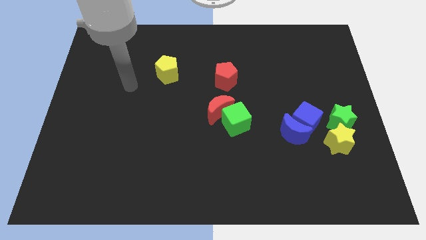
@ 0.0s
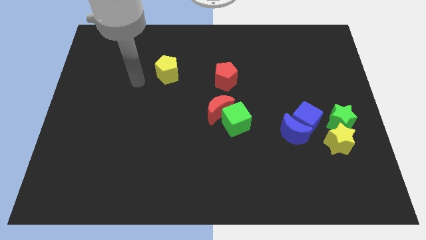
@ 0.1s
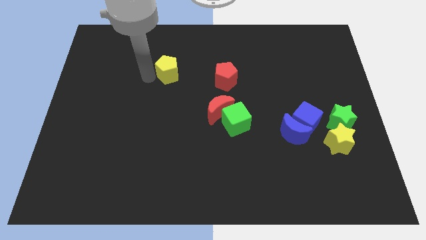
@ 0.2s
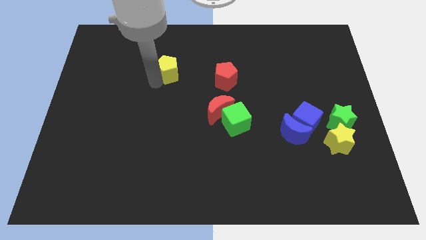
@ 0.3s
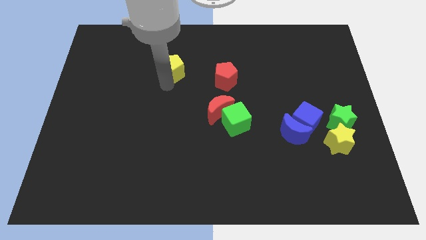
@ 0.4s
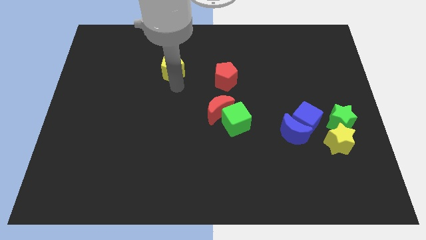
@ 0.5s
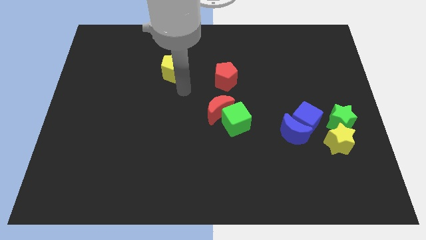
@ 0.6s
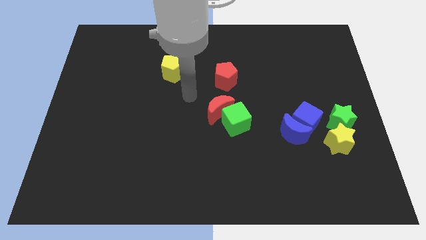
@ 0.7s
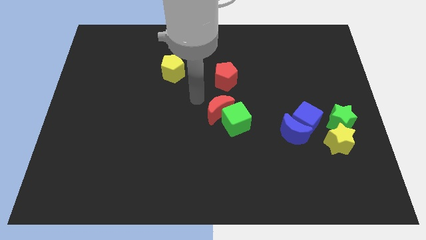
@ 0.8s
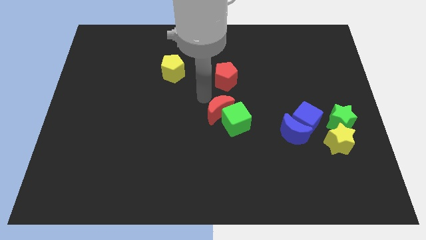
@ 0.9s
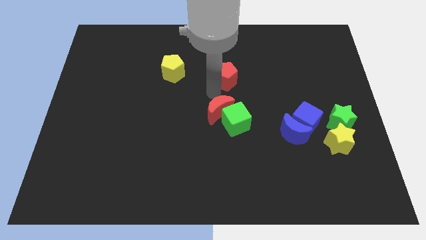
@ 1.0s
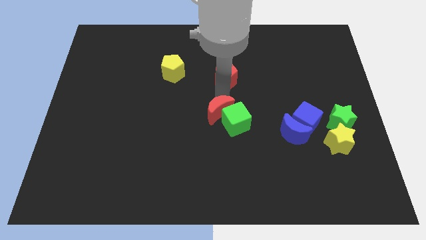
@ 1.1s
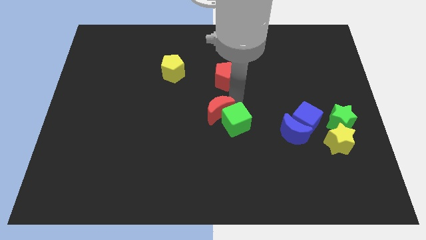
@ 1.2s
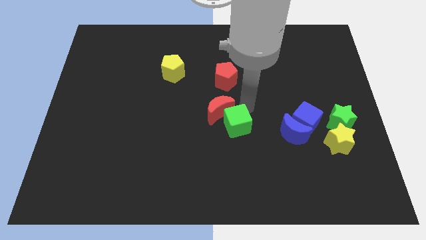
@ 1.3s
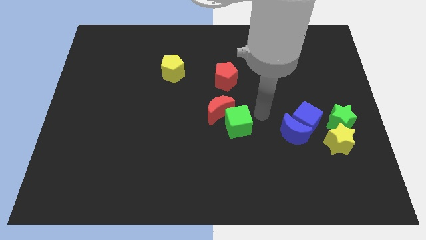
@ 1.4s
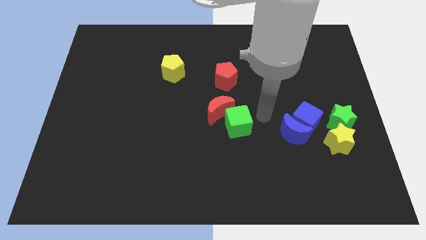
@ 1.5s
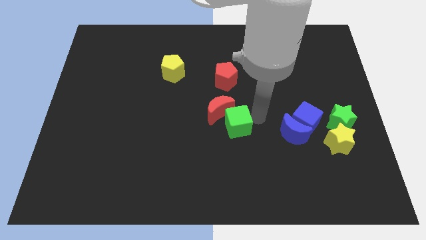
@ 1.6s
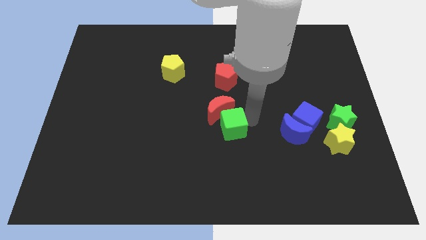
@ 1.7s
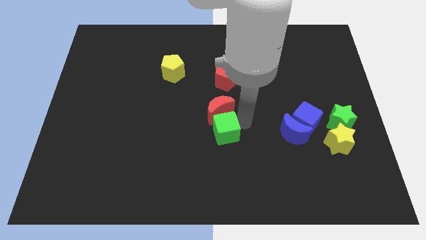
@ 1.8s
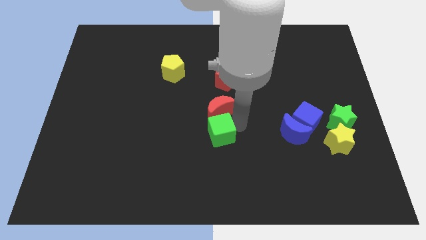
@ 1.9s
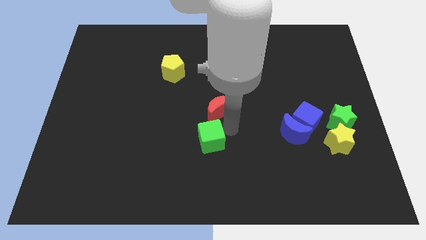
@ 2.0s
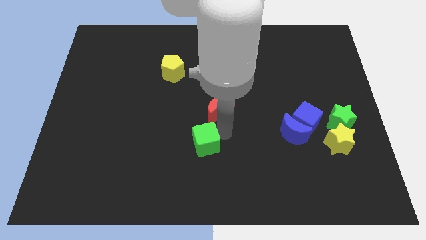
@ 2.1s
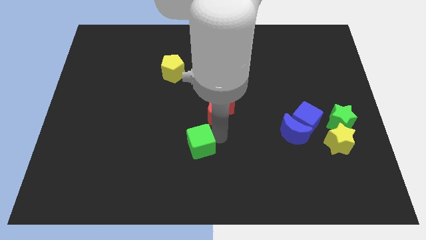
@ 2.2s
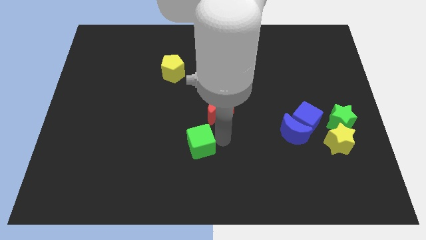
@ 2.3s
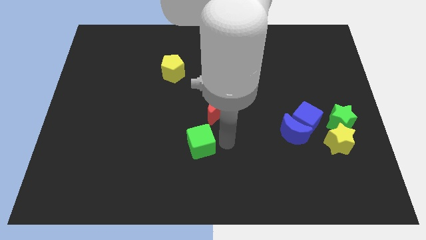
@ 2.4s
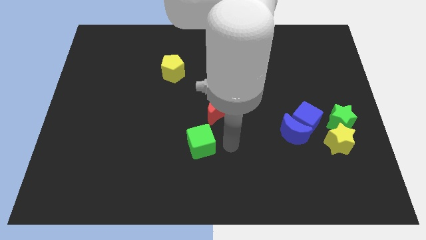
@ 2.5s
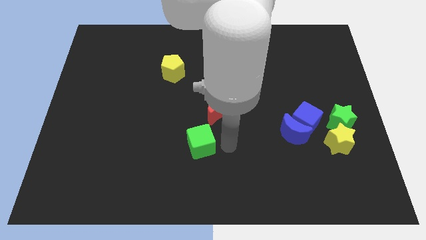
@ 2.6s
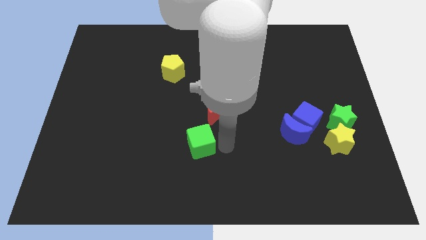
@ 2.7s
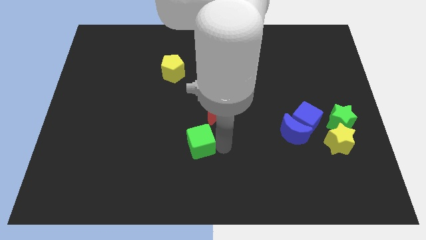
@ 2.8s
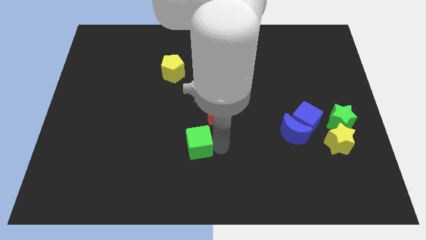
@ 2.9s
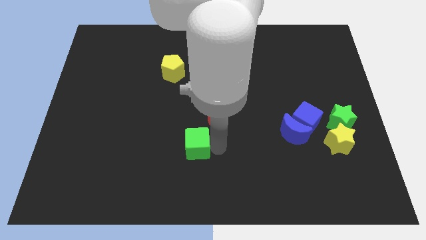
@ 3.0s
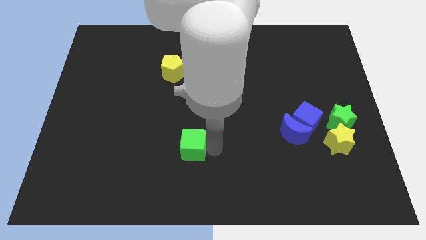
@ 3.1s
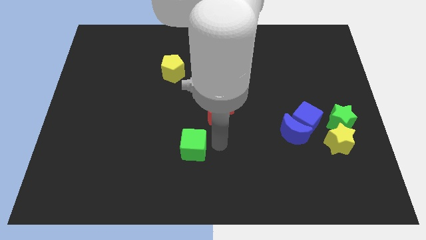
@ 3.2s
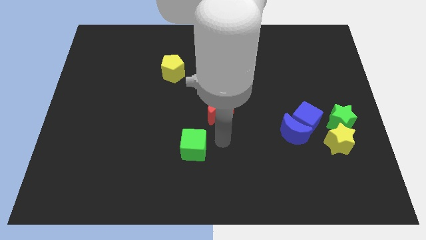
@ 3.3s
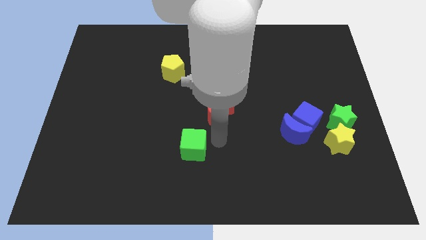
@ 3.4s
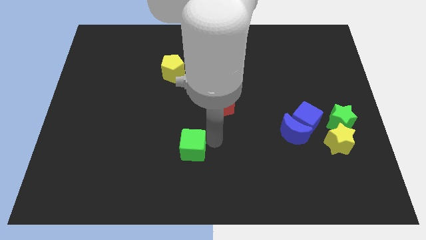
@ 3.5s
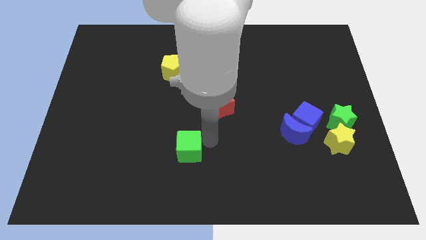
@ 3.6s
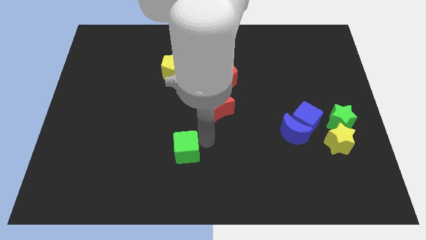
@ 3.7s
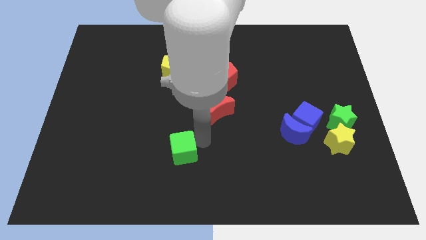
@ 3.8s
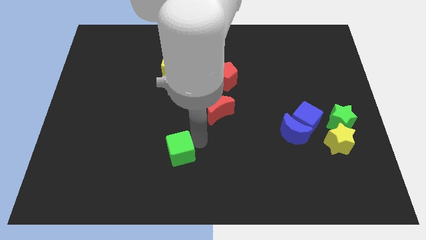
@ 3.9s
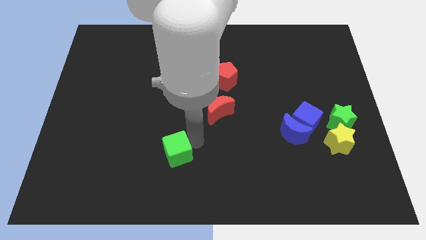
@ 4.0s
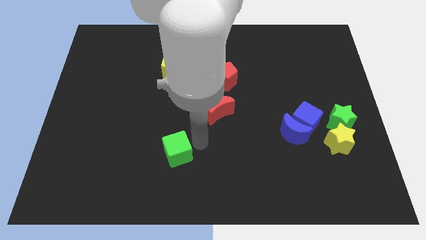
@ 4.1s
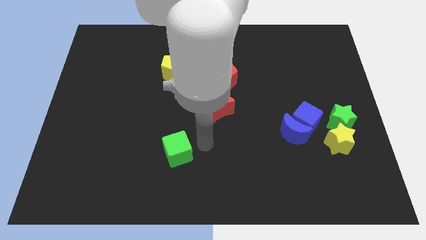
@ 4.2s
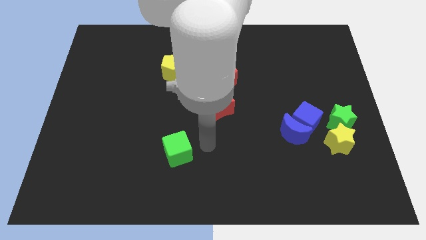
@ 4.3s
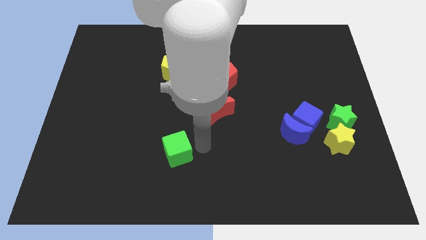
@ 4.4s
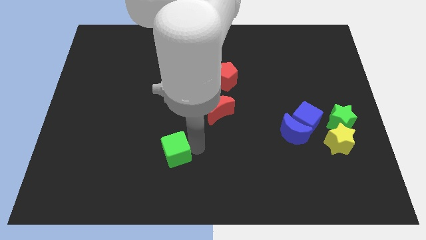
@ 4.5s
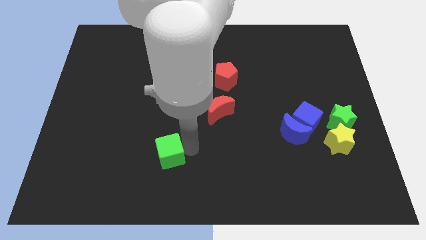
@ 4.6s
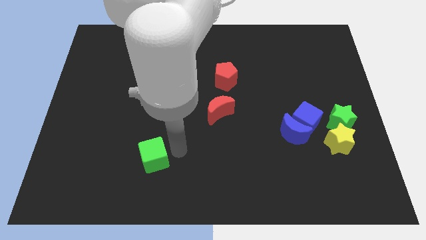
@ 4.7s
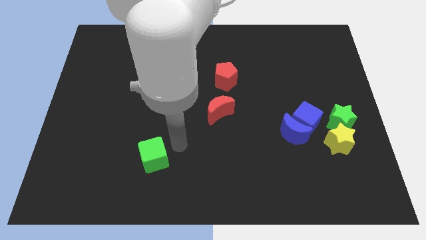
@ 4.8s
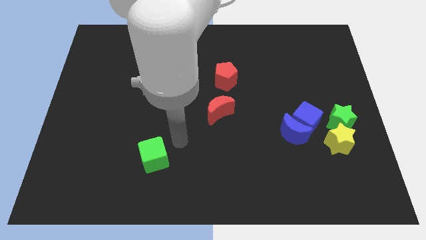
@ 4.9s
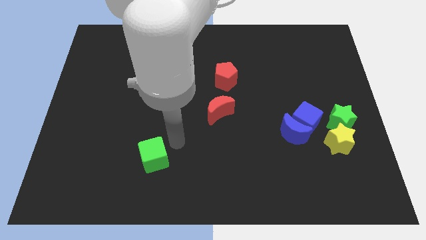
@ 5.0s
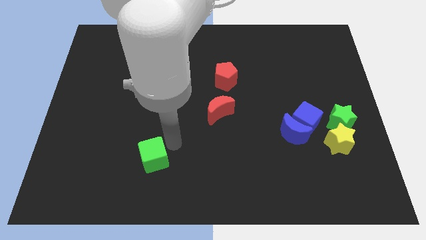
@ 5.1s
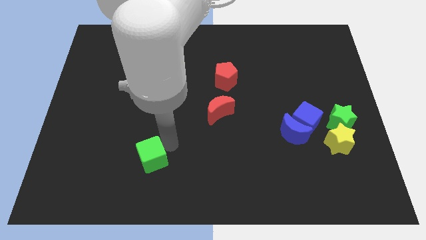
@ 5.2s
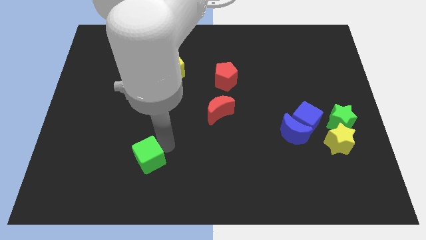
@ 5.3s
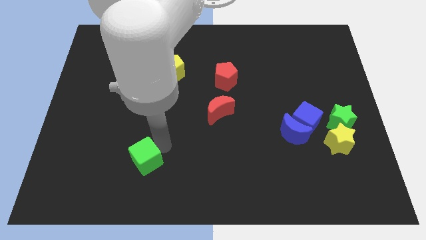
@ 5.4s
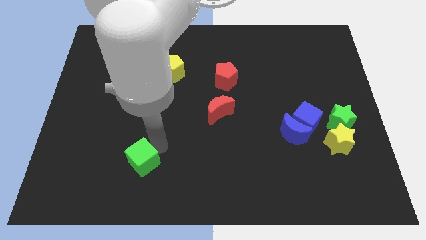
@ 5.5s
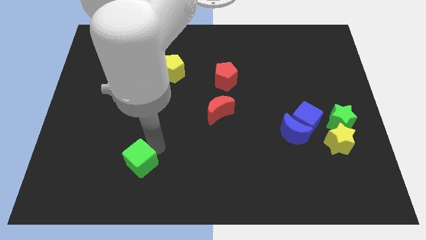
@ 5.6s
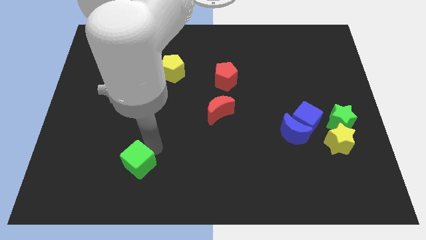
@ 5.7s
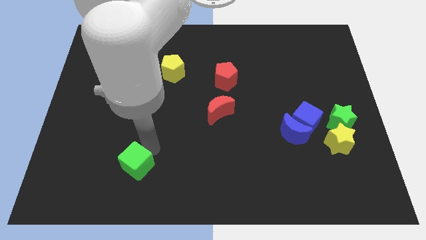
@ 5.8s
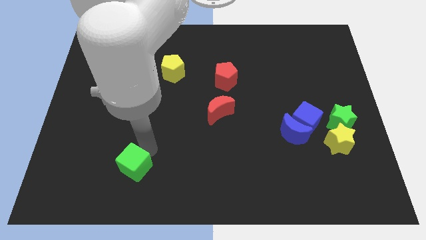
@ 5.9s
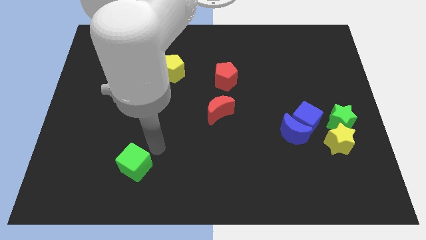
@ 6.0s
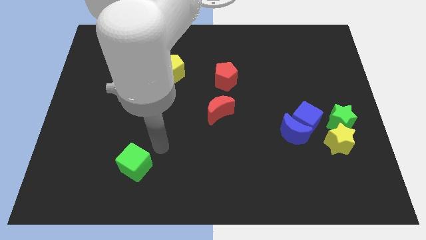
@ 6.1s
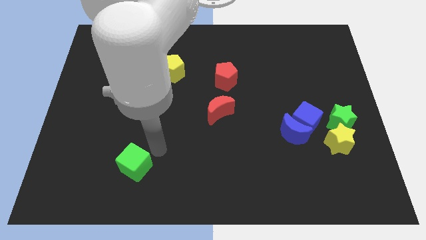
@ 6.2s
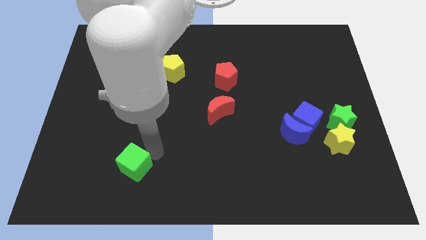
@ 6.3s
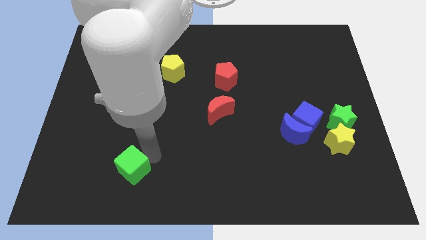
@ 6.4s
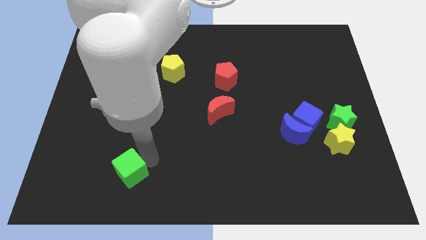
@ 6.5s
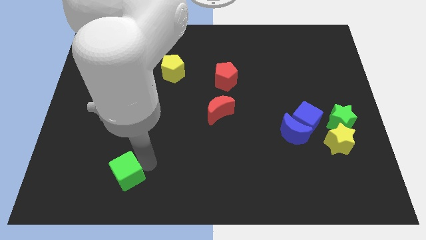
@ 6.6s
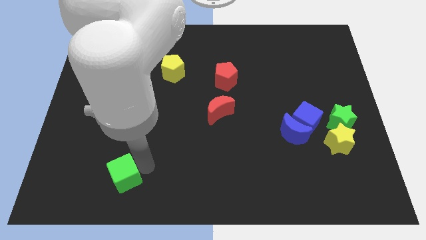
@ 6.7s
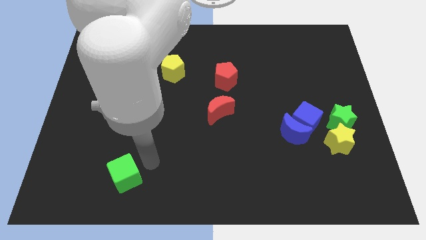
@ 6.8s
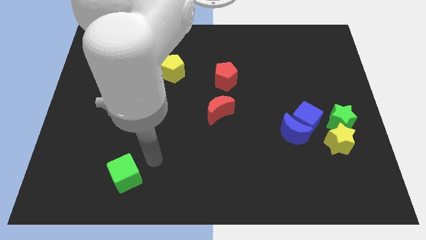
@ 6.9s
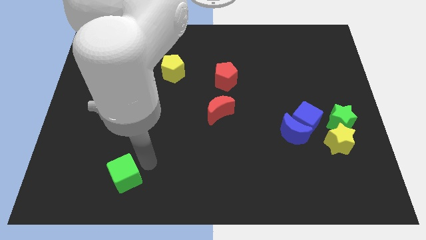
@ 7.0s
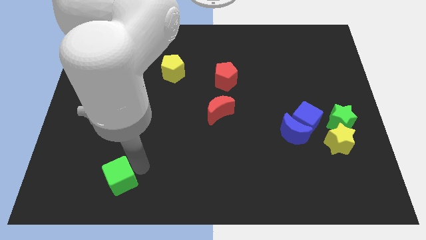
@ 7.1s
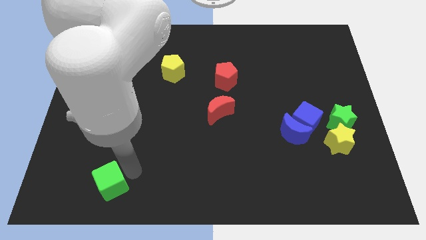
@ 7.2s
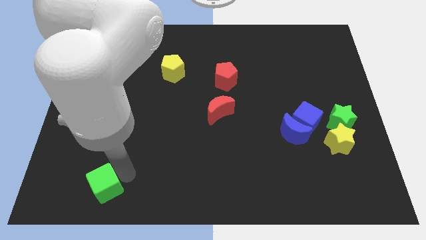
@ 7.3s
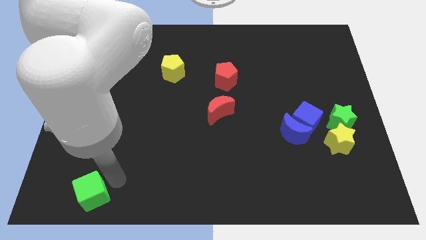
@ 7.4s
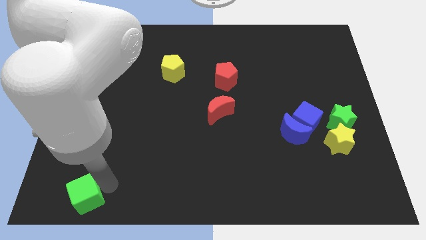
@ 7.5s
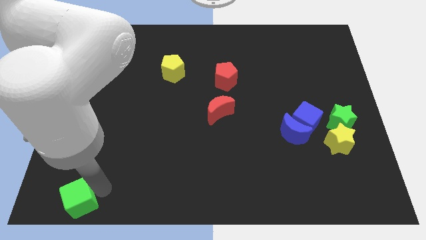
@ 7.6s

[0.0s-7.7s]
move the green cube to the bottom left
